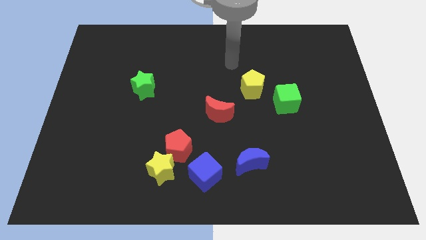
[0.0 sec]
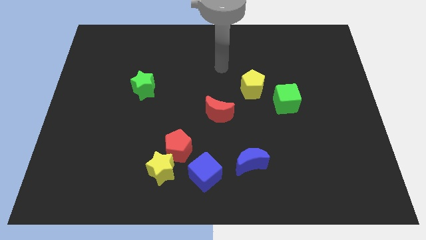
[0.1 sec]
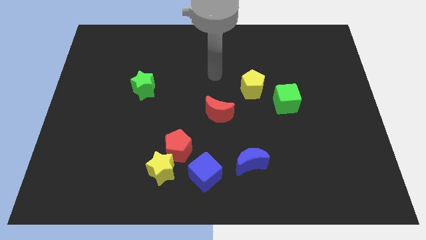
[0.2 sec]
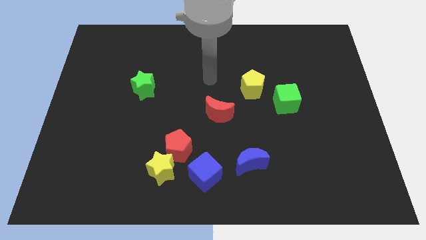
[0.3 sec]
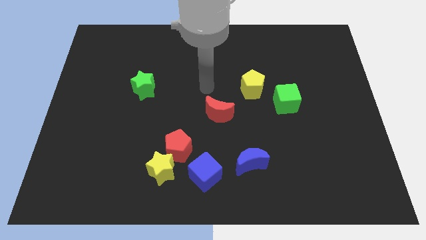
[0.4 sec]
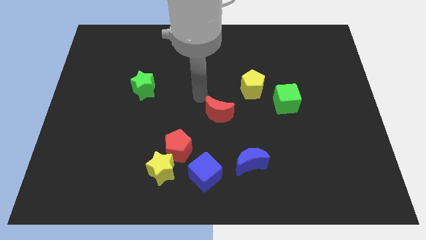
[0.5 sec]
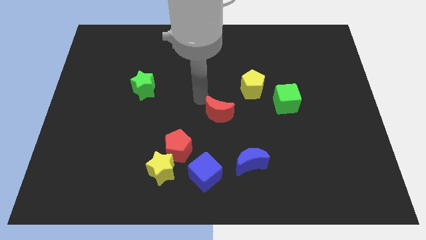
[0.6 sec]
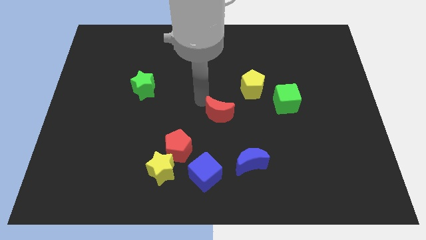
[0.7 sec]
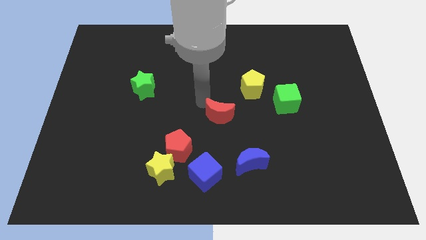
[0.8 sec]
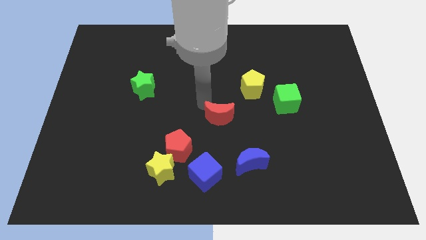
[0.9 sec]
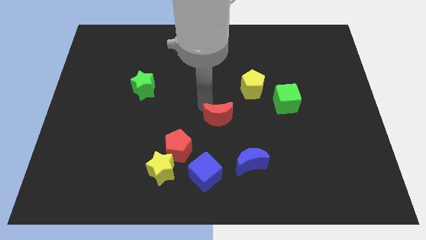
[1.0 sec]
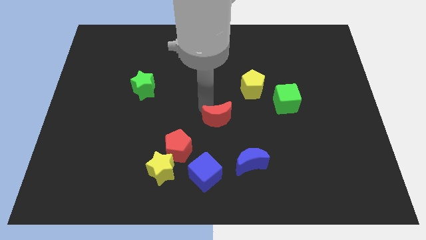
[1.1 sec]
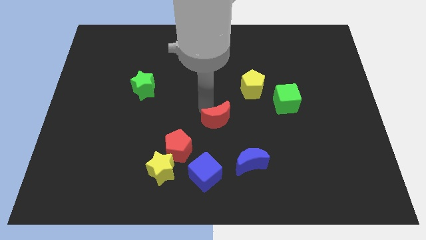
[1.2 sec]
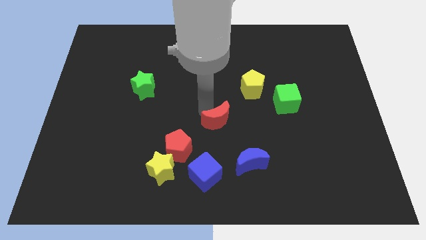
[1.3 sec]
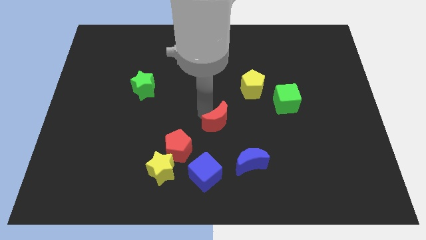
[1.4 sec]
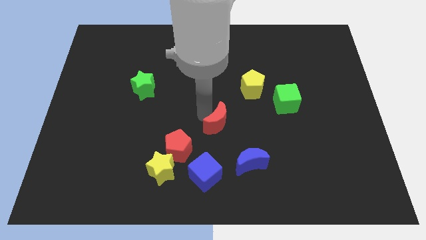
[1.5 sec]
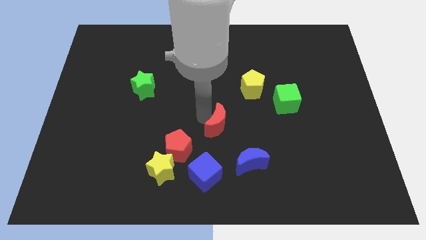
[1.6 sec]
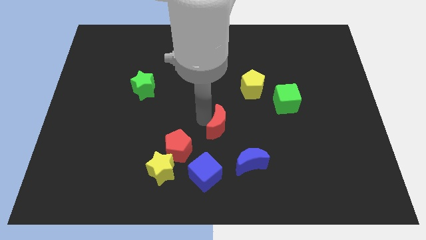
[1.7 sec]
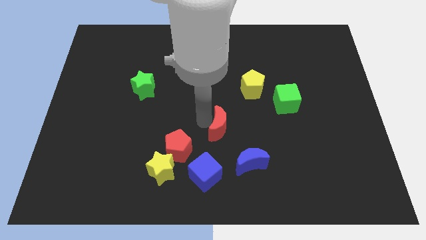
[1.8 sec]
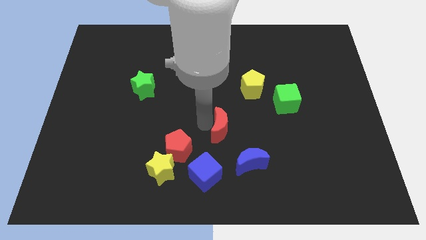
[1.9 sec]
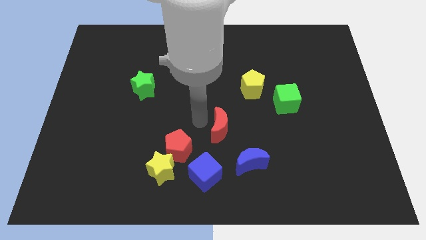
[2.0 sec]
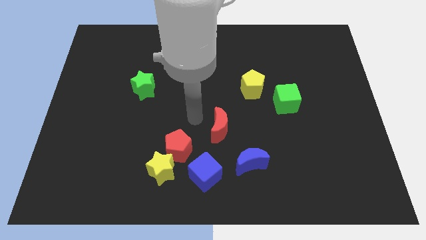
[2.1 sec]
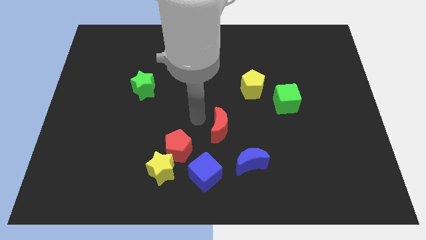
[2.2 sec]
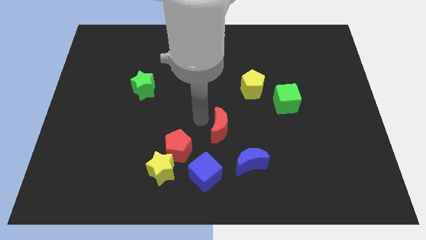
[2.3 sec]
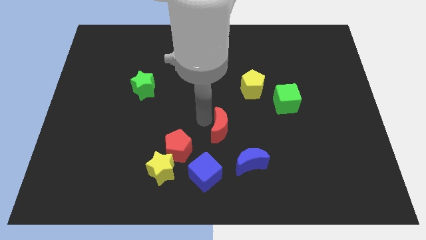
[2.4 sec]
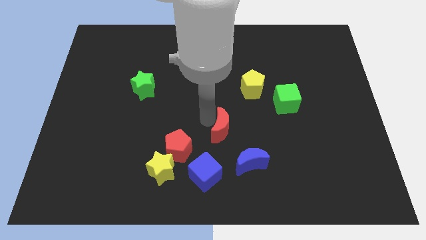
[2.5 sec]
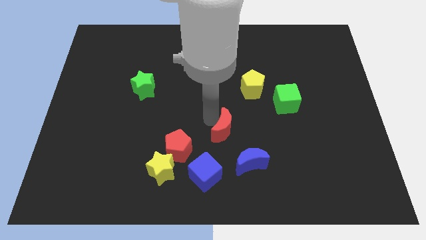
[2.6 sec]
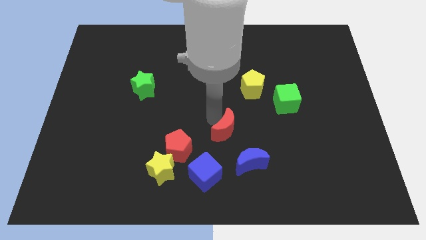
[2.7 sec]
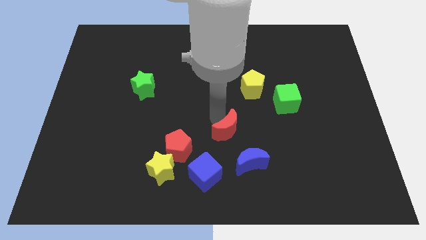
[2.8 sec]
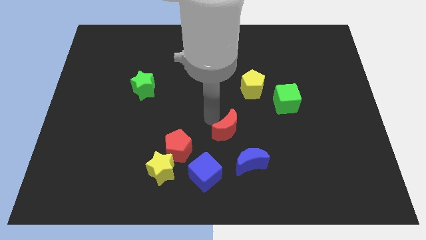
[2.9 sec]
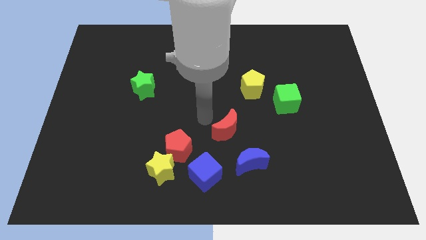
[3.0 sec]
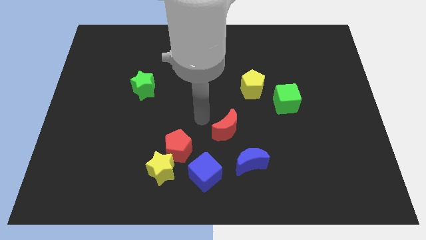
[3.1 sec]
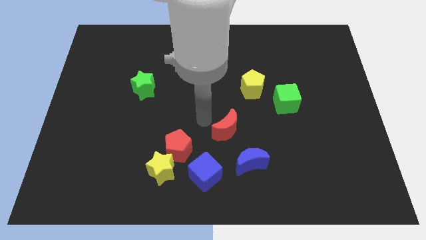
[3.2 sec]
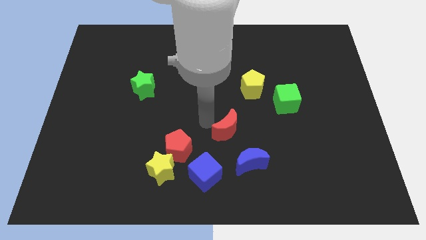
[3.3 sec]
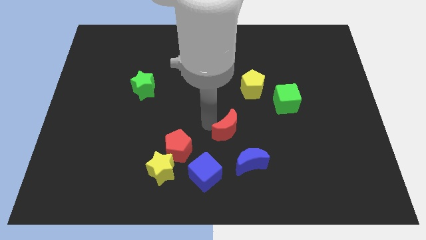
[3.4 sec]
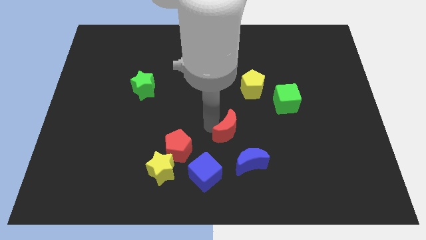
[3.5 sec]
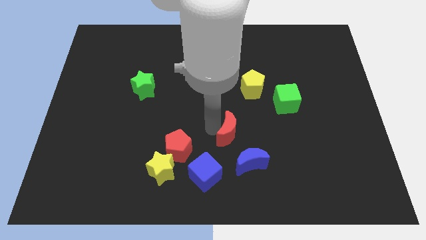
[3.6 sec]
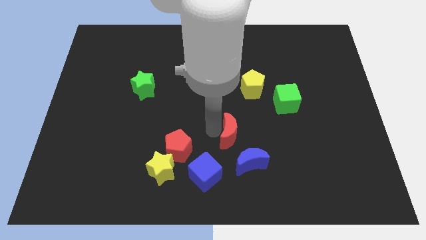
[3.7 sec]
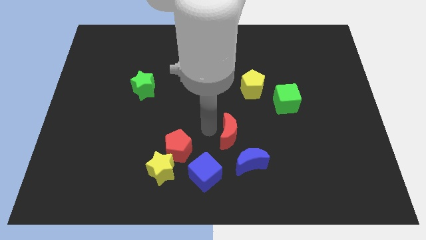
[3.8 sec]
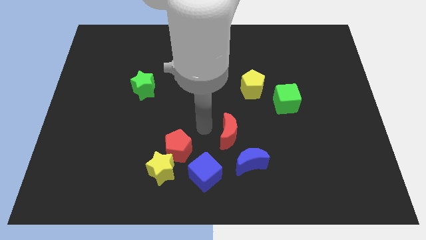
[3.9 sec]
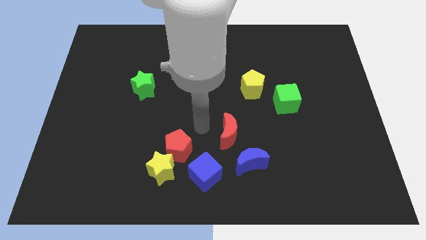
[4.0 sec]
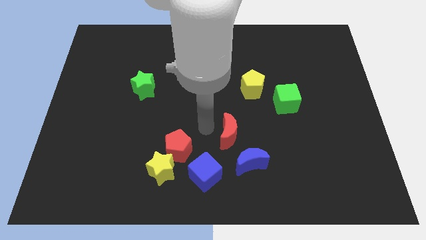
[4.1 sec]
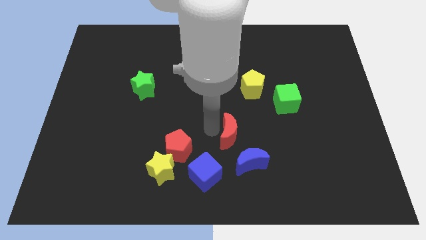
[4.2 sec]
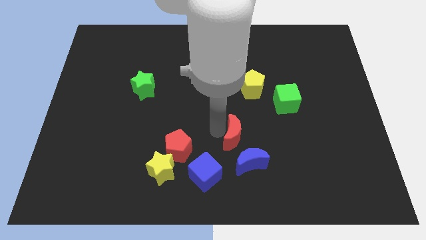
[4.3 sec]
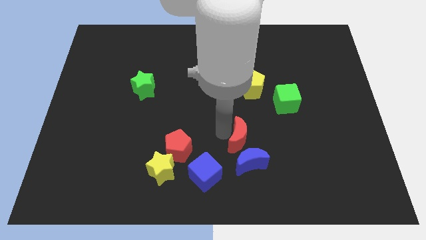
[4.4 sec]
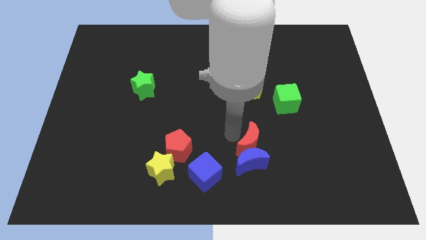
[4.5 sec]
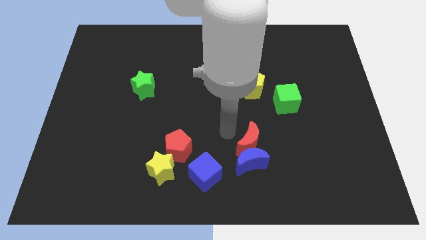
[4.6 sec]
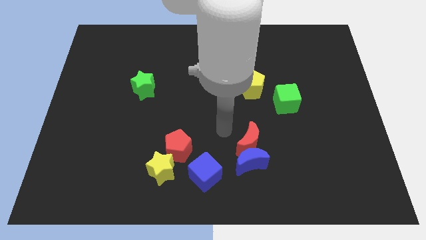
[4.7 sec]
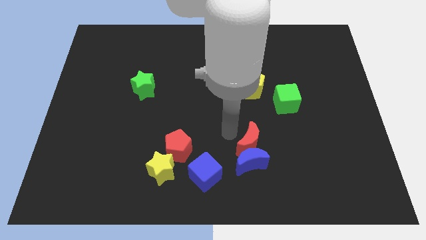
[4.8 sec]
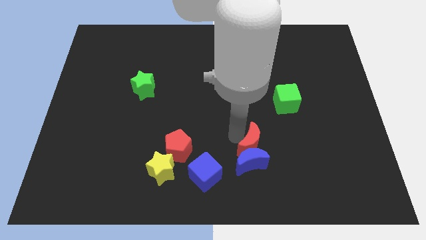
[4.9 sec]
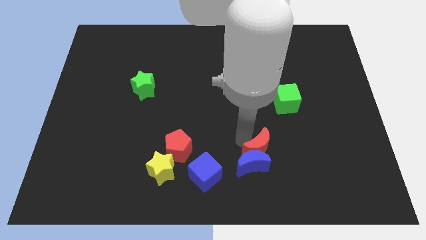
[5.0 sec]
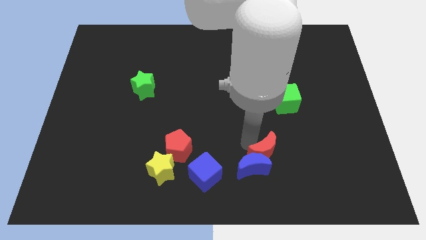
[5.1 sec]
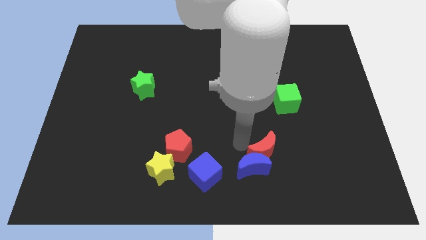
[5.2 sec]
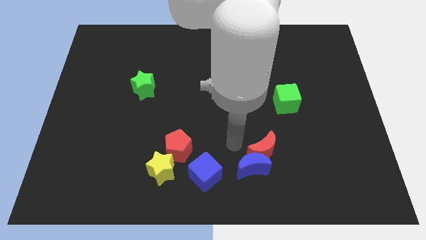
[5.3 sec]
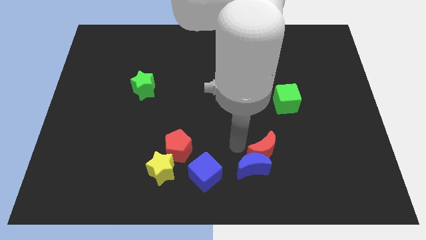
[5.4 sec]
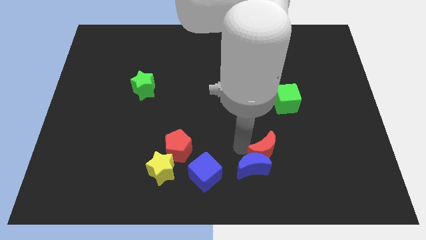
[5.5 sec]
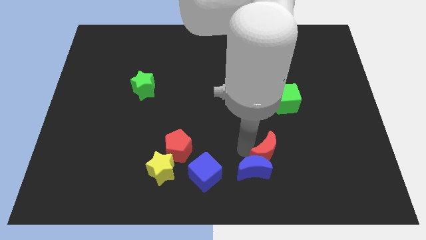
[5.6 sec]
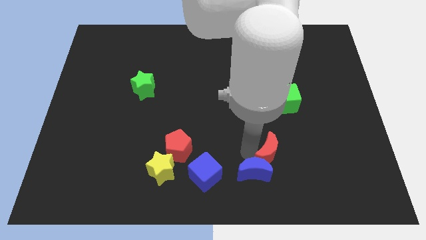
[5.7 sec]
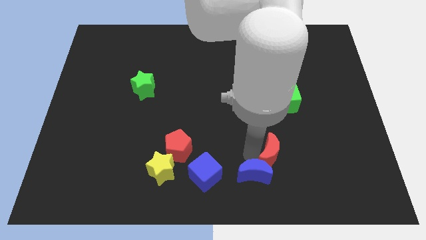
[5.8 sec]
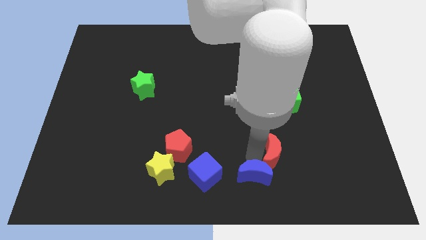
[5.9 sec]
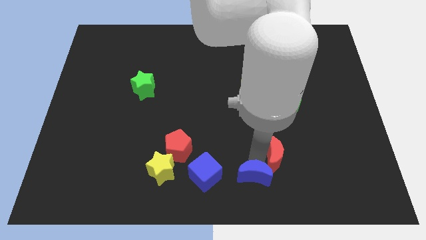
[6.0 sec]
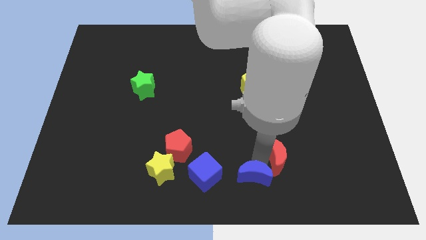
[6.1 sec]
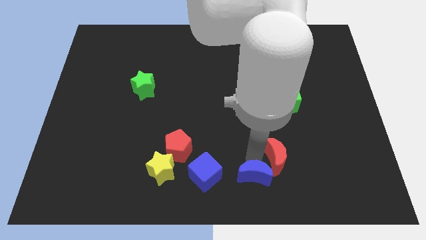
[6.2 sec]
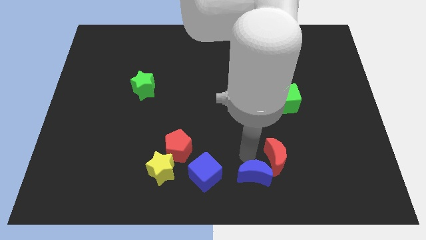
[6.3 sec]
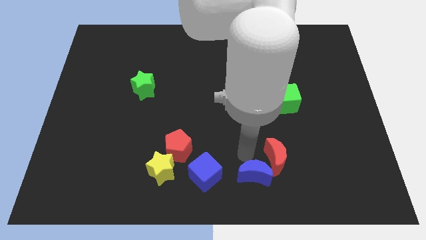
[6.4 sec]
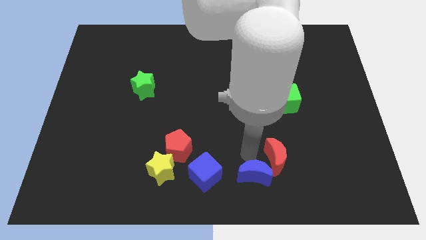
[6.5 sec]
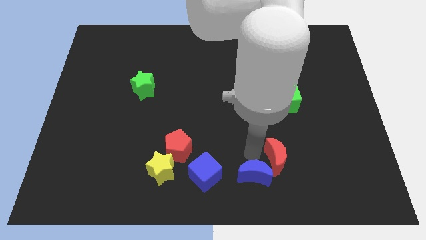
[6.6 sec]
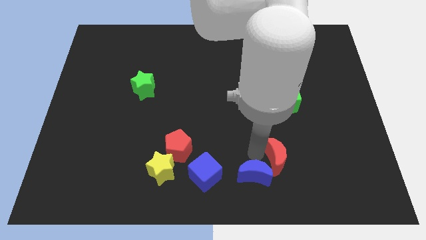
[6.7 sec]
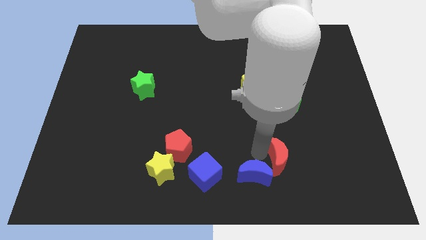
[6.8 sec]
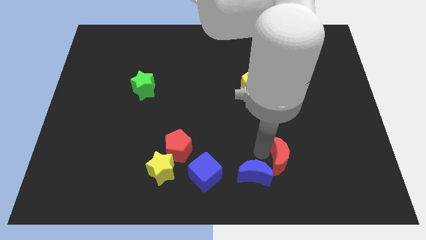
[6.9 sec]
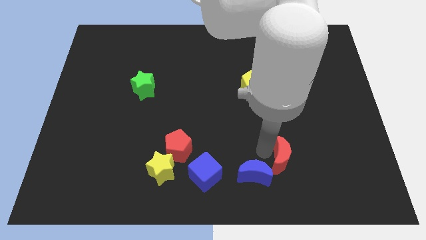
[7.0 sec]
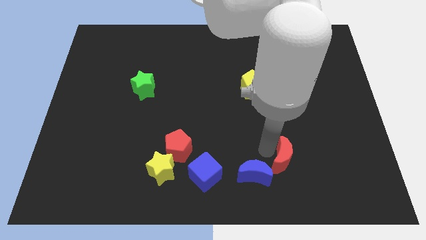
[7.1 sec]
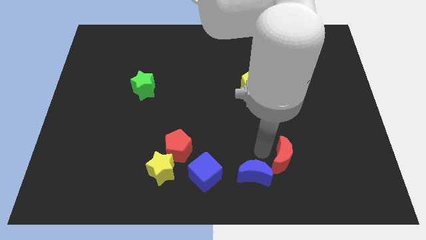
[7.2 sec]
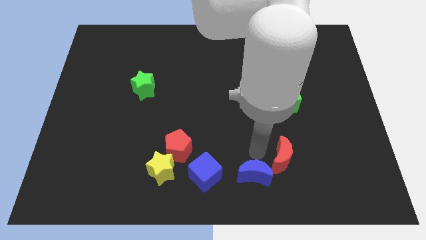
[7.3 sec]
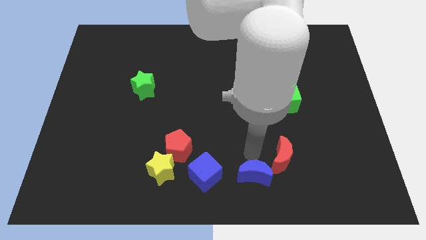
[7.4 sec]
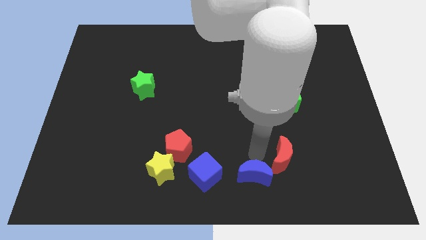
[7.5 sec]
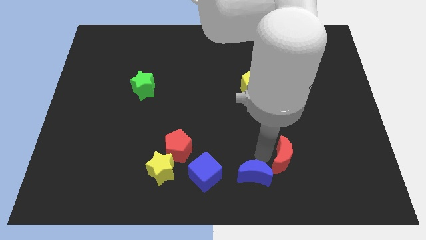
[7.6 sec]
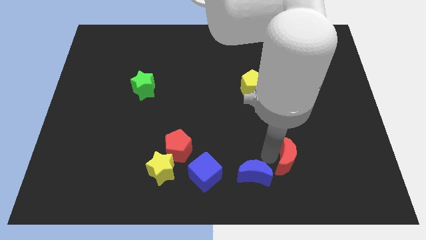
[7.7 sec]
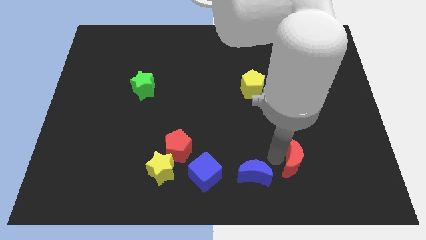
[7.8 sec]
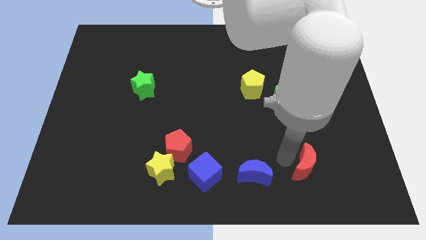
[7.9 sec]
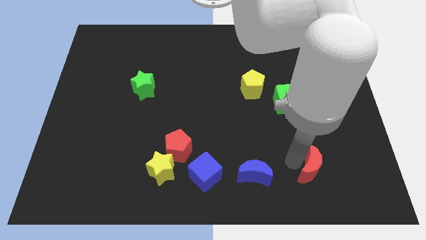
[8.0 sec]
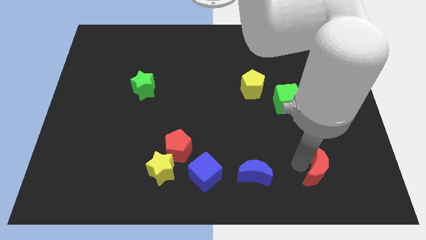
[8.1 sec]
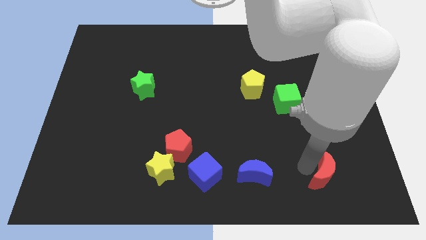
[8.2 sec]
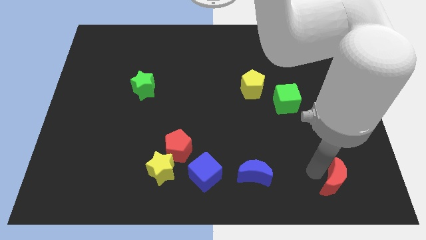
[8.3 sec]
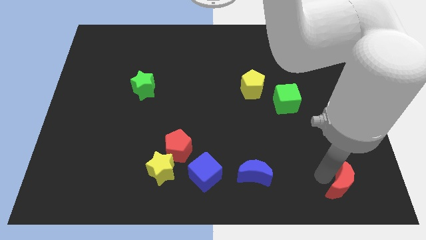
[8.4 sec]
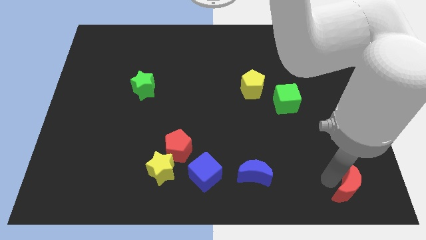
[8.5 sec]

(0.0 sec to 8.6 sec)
push the red moon to the bottom right
